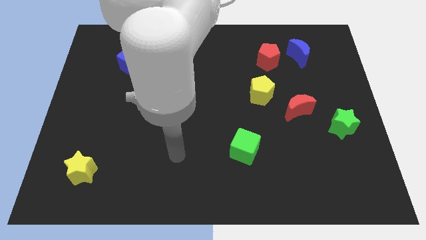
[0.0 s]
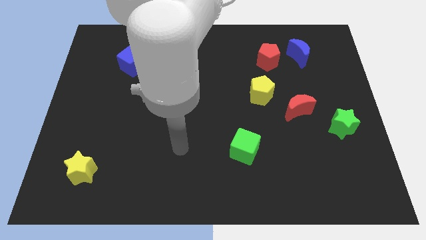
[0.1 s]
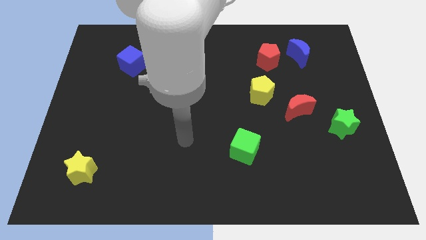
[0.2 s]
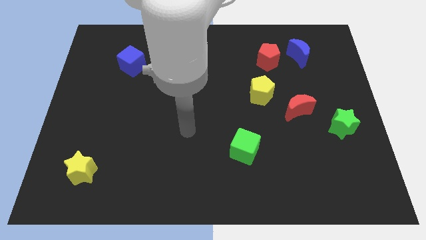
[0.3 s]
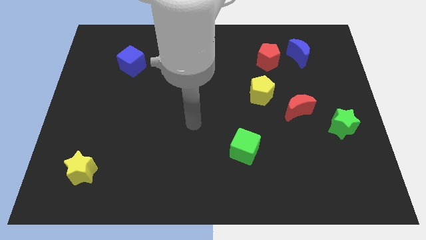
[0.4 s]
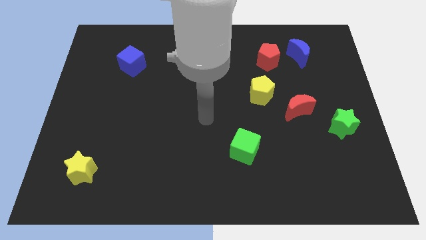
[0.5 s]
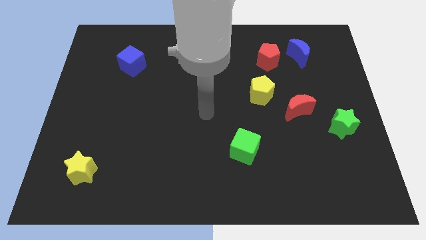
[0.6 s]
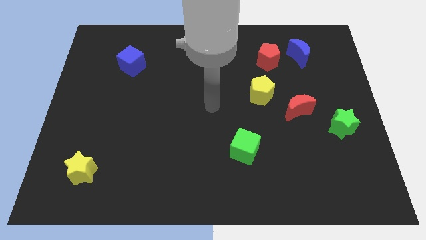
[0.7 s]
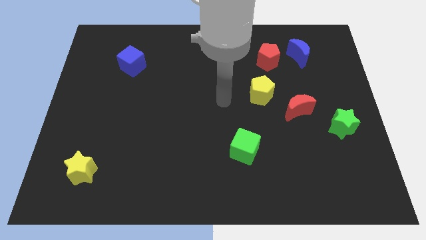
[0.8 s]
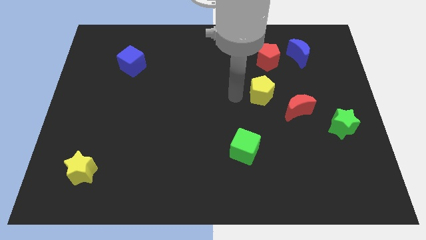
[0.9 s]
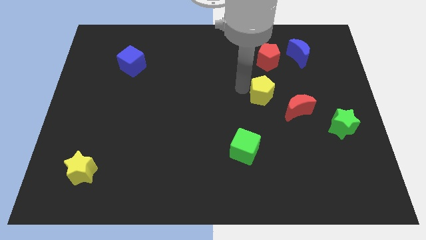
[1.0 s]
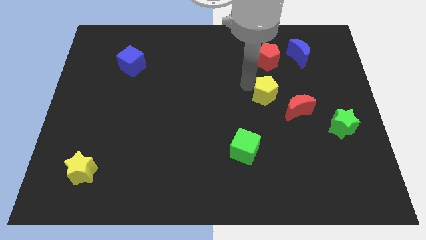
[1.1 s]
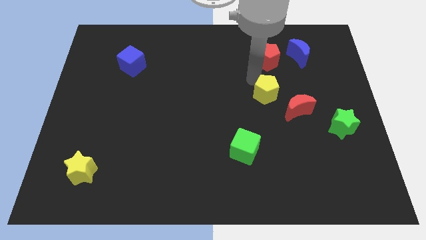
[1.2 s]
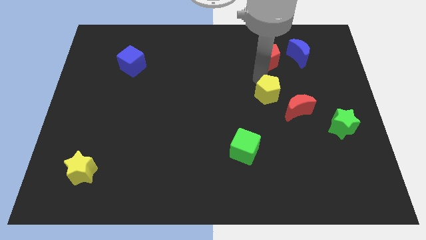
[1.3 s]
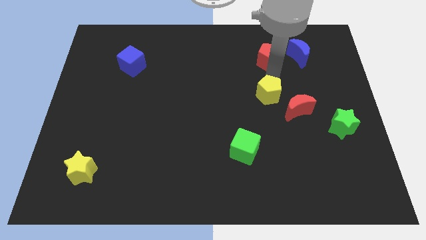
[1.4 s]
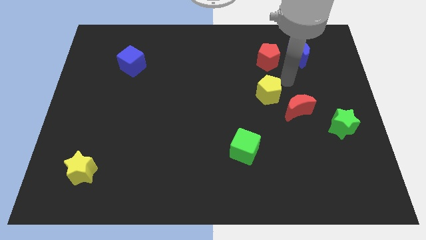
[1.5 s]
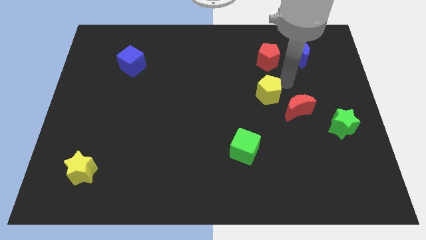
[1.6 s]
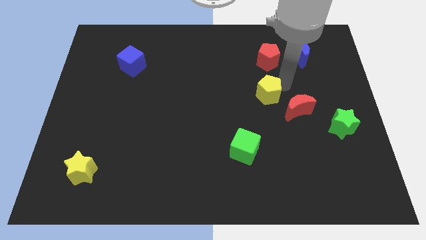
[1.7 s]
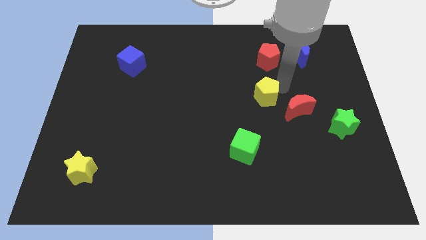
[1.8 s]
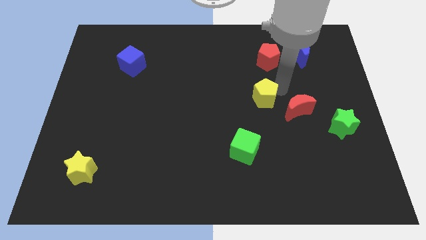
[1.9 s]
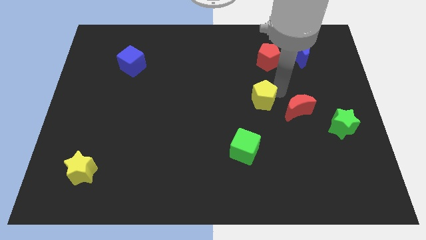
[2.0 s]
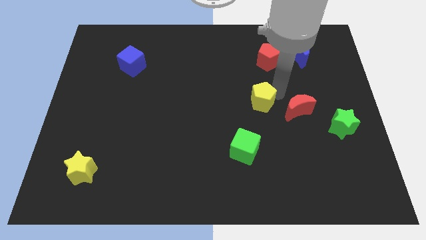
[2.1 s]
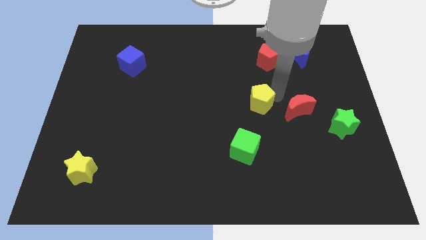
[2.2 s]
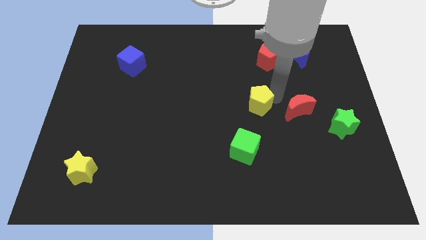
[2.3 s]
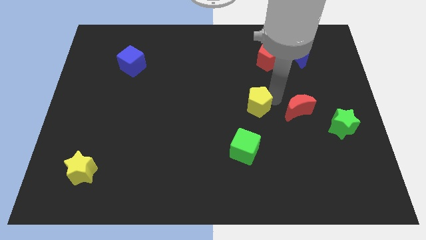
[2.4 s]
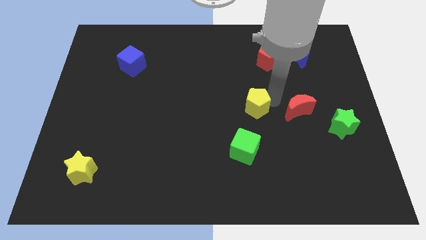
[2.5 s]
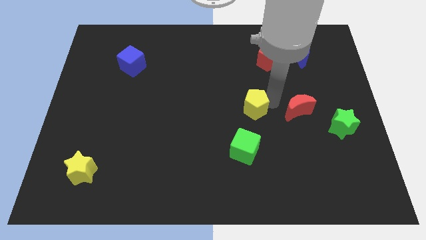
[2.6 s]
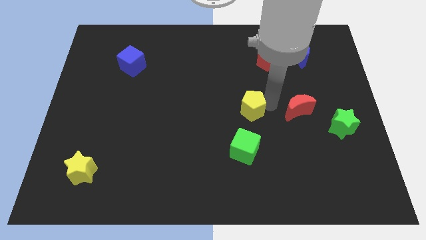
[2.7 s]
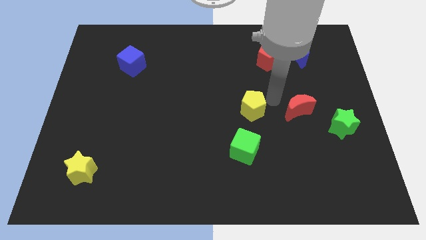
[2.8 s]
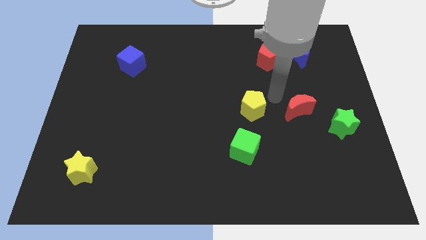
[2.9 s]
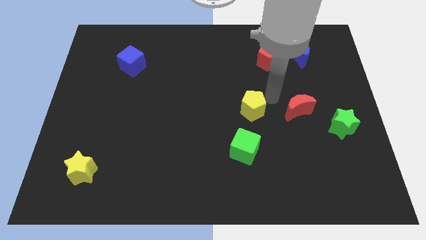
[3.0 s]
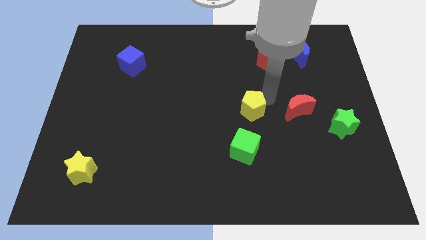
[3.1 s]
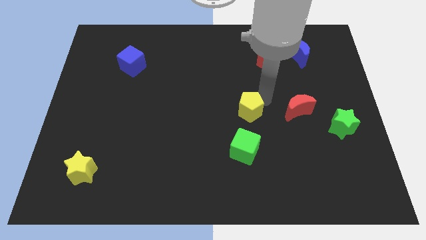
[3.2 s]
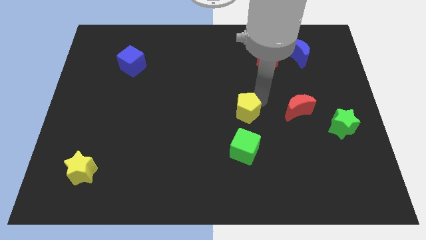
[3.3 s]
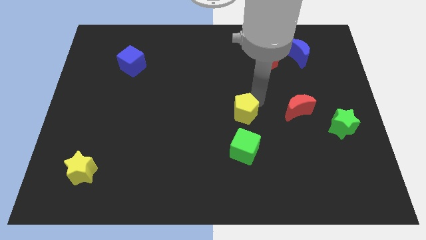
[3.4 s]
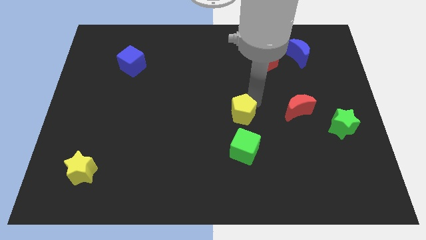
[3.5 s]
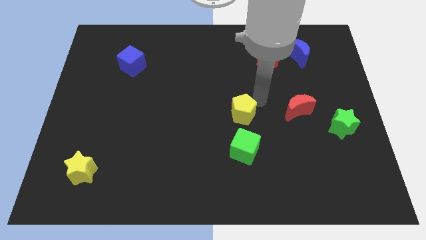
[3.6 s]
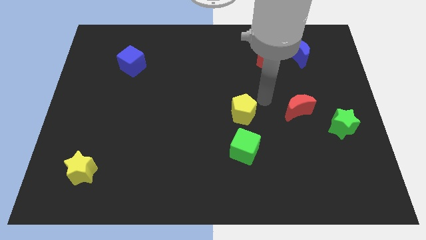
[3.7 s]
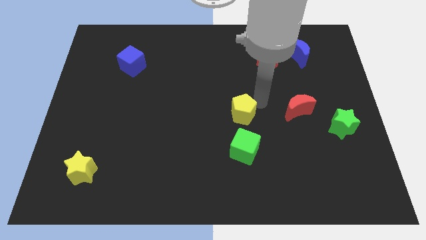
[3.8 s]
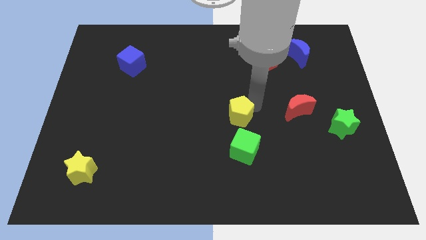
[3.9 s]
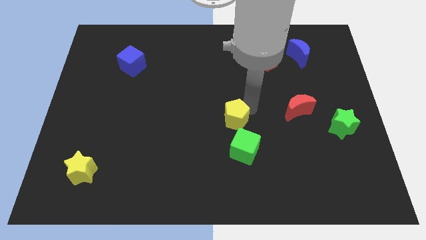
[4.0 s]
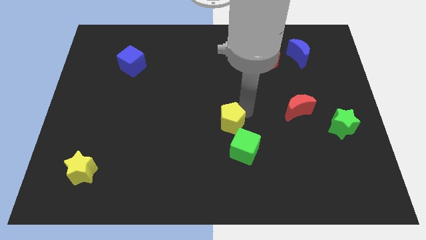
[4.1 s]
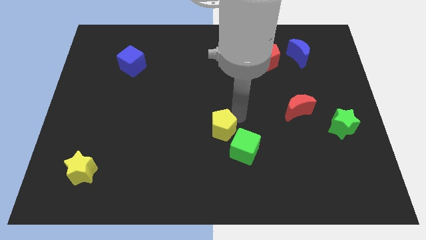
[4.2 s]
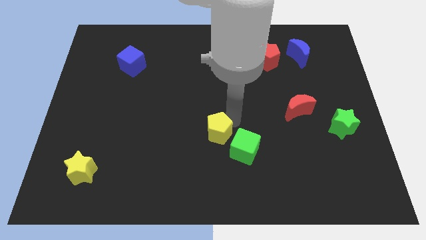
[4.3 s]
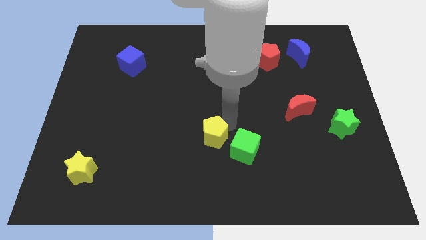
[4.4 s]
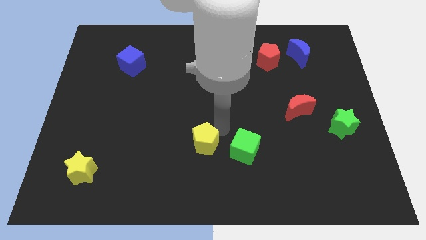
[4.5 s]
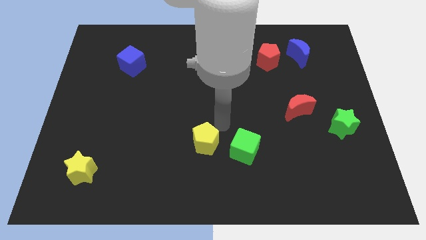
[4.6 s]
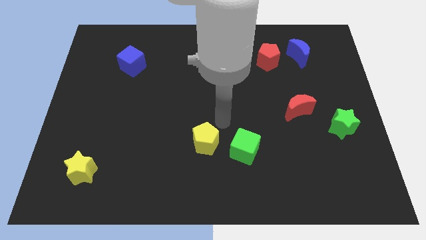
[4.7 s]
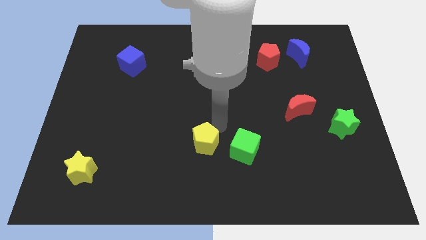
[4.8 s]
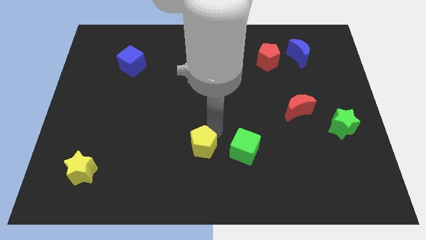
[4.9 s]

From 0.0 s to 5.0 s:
move the yellow pentagon downwards and to the left diagonally

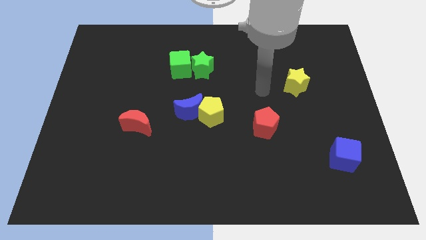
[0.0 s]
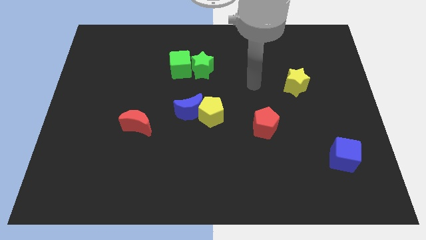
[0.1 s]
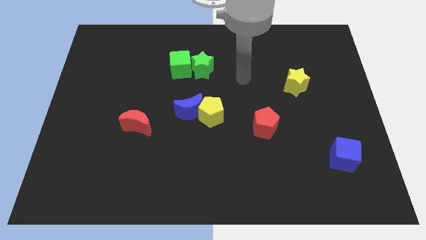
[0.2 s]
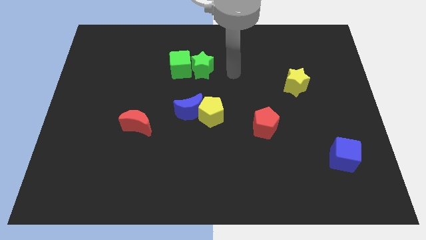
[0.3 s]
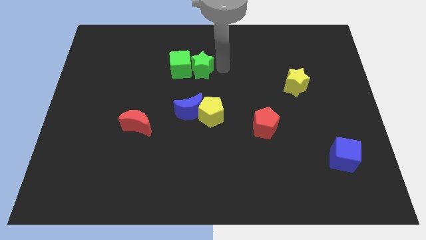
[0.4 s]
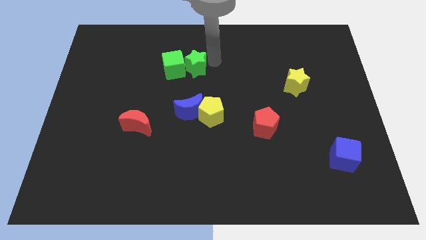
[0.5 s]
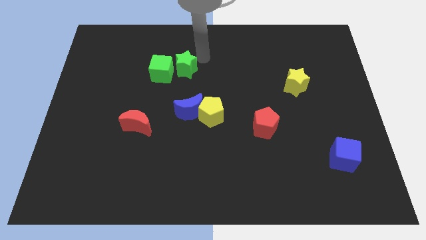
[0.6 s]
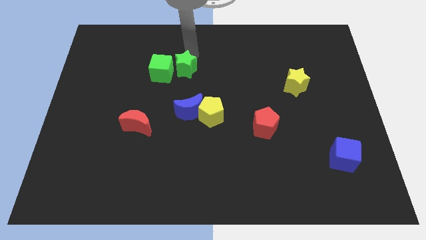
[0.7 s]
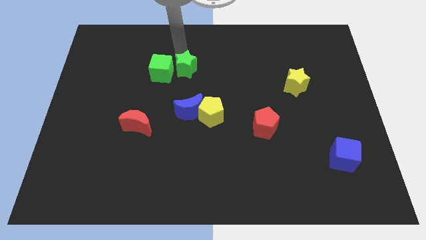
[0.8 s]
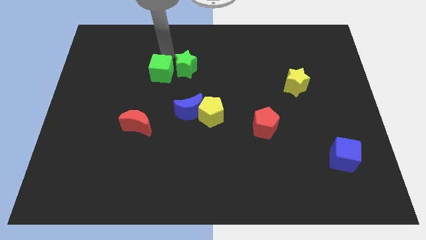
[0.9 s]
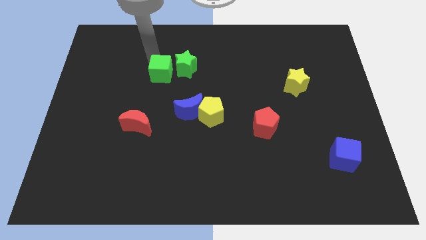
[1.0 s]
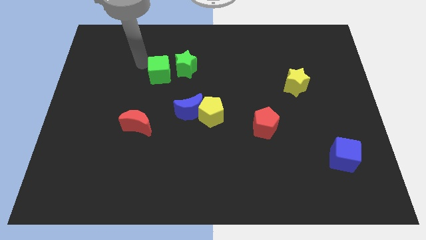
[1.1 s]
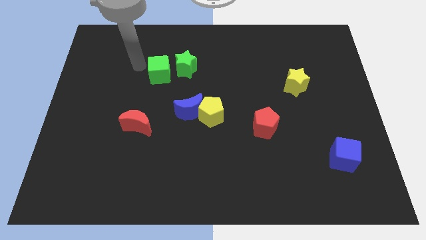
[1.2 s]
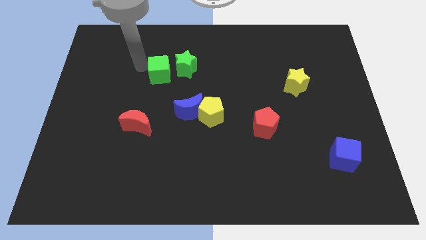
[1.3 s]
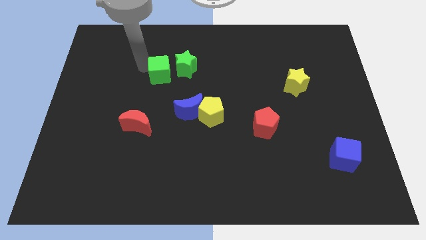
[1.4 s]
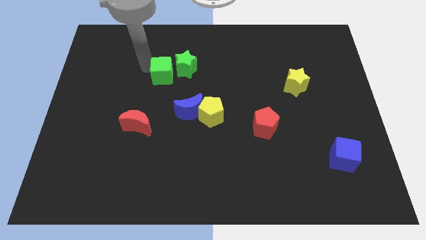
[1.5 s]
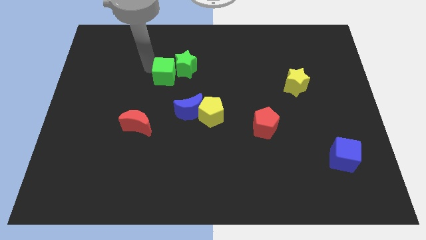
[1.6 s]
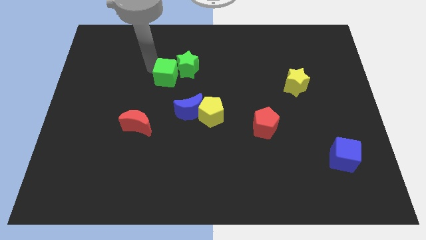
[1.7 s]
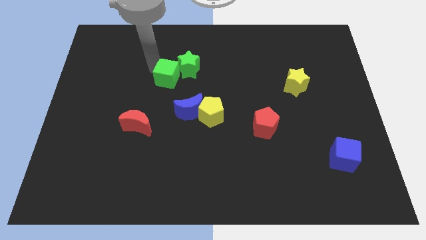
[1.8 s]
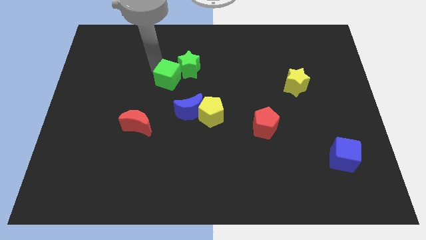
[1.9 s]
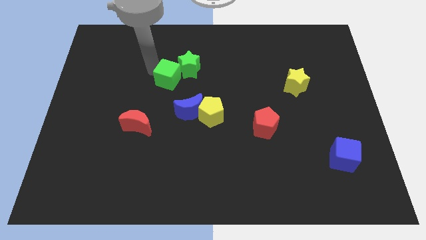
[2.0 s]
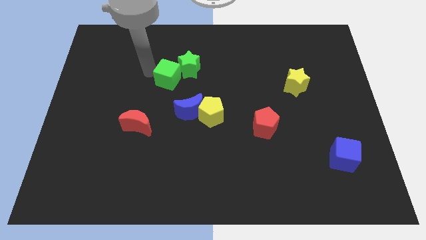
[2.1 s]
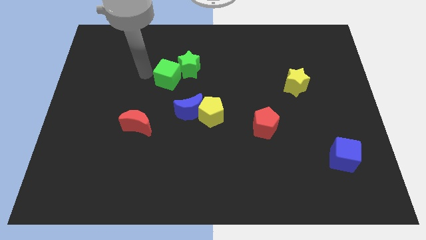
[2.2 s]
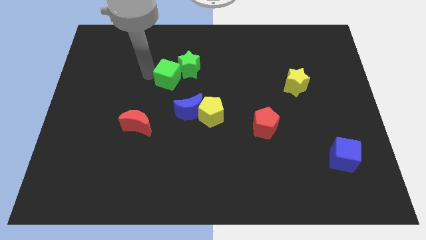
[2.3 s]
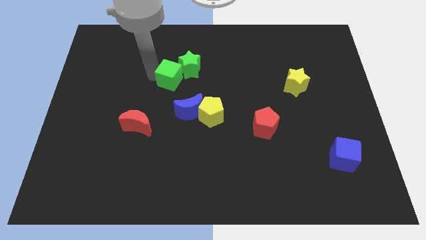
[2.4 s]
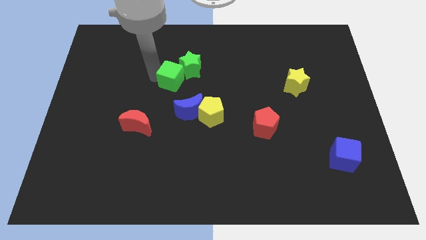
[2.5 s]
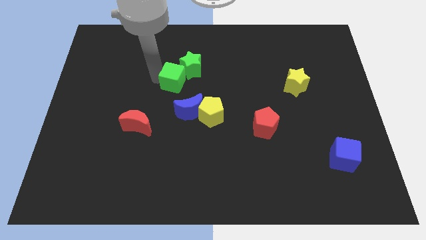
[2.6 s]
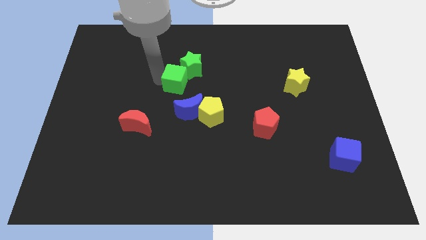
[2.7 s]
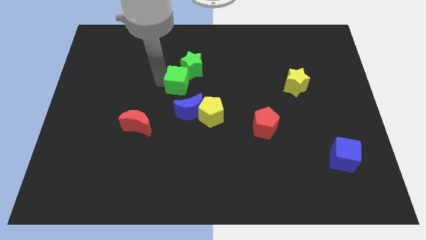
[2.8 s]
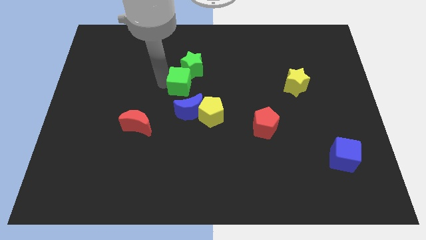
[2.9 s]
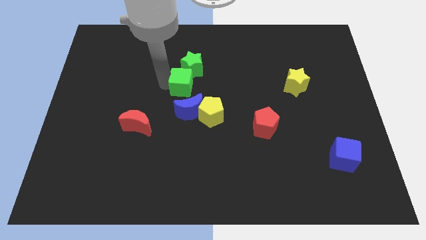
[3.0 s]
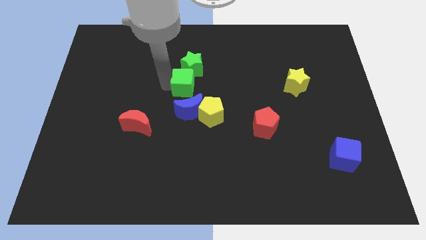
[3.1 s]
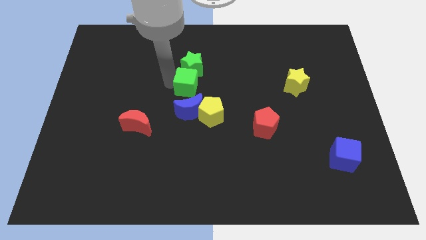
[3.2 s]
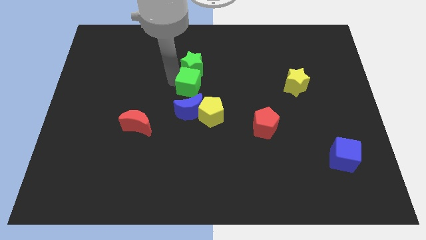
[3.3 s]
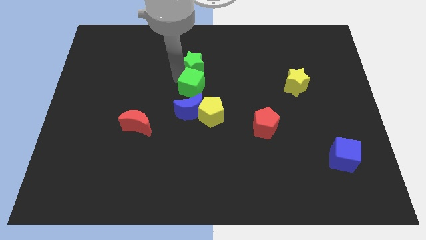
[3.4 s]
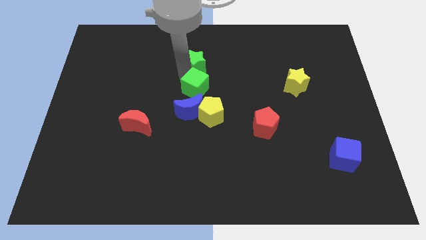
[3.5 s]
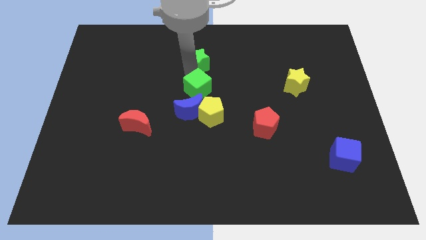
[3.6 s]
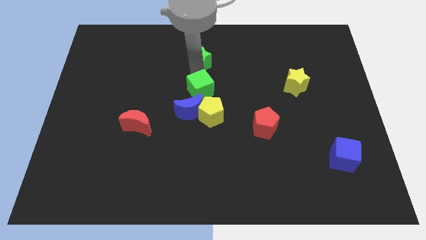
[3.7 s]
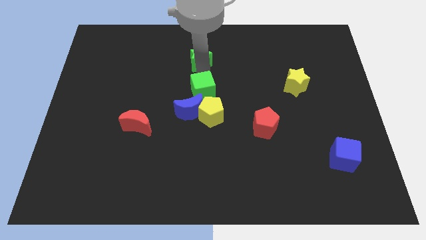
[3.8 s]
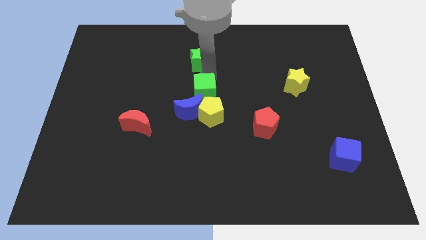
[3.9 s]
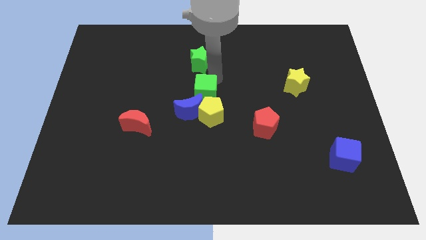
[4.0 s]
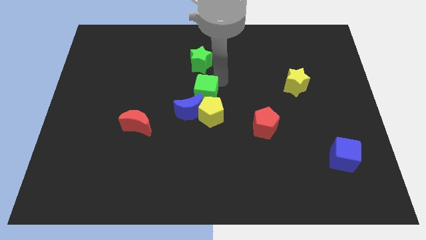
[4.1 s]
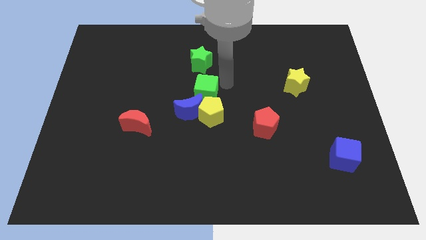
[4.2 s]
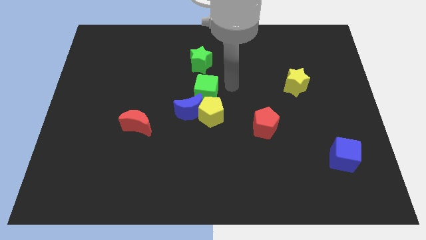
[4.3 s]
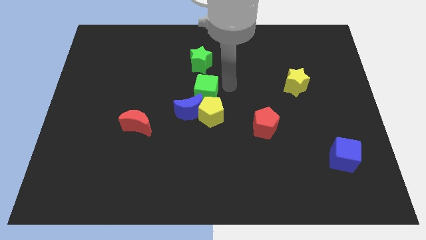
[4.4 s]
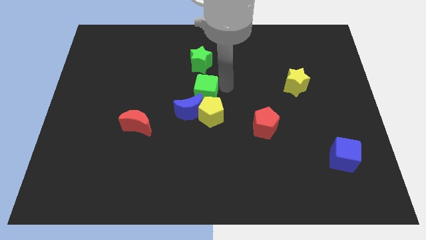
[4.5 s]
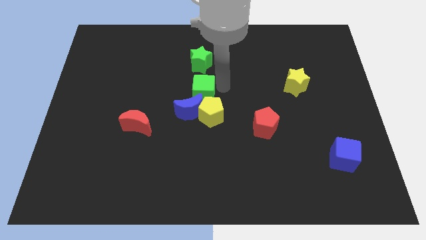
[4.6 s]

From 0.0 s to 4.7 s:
slightly slide the green cube down
